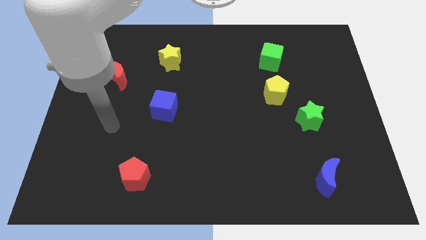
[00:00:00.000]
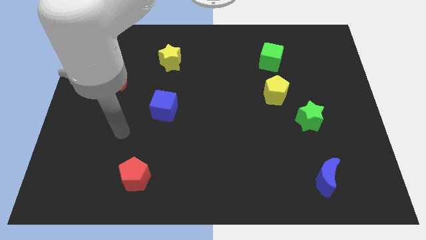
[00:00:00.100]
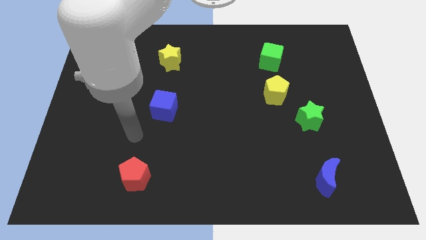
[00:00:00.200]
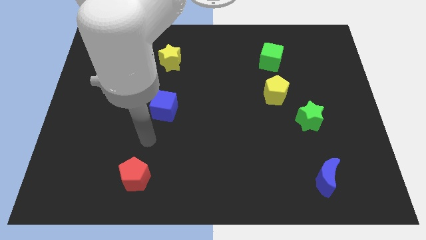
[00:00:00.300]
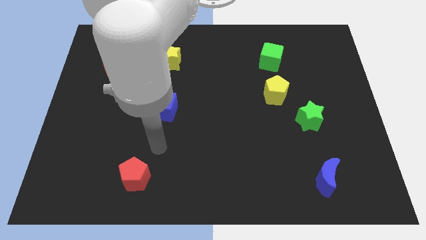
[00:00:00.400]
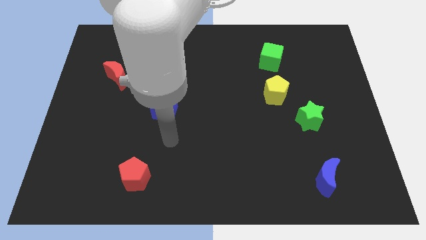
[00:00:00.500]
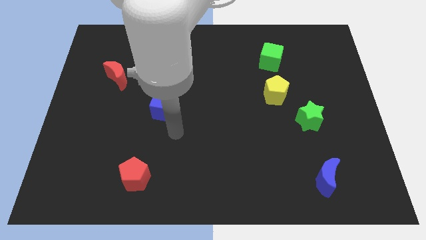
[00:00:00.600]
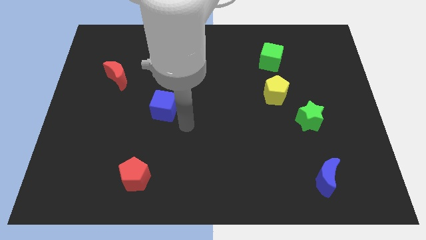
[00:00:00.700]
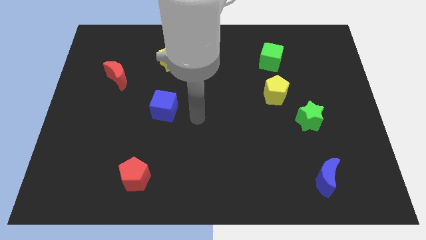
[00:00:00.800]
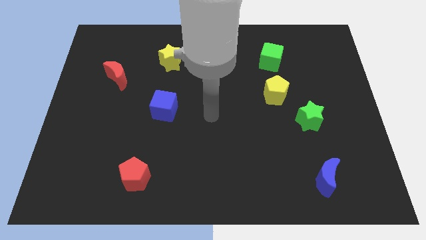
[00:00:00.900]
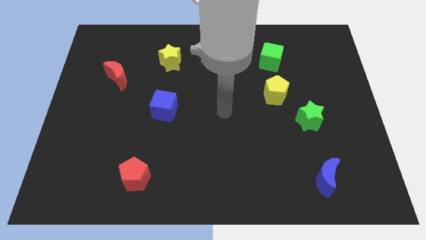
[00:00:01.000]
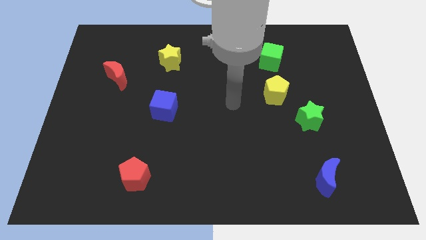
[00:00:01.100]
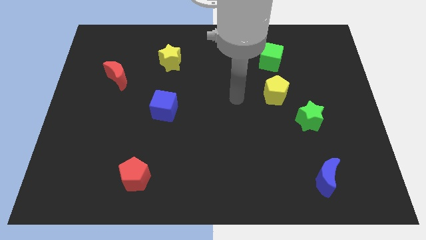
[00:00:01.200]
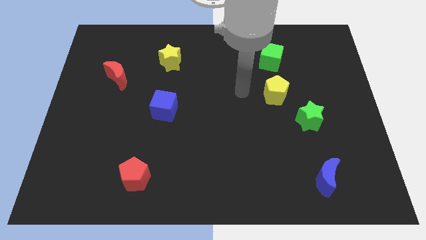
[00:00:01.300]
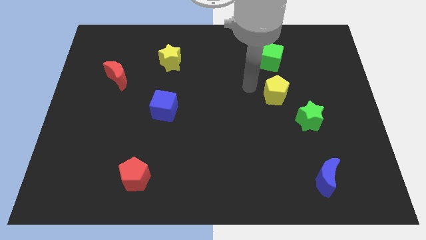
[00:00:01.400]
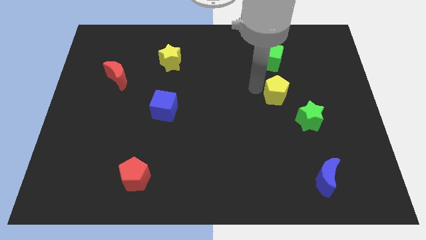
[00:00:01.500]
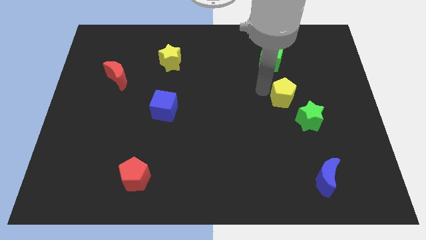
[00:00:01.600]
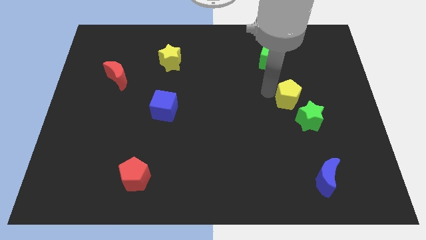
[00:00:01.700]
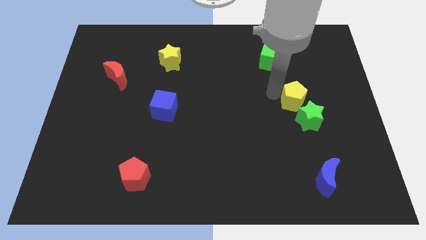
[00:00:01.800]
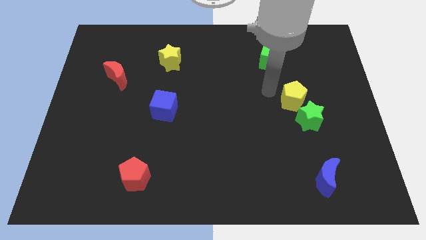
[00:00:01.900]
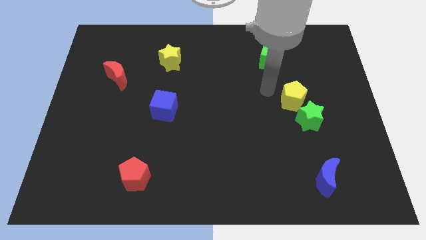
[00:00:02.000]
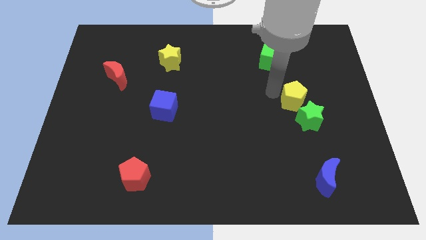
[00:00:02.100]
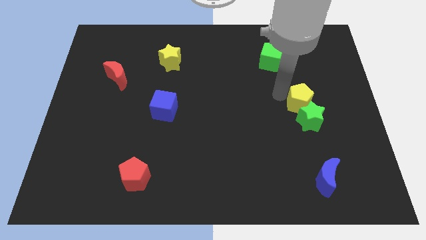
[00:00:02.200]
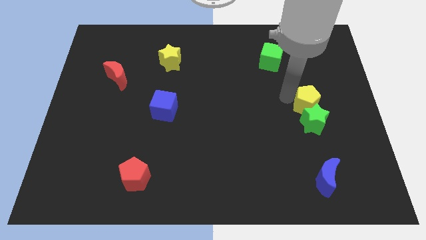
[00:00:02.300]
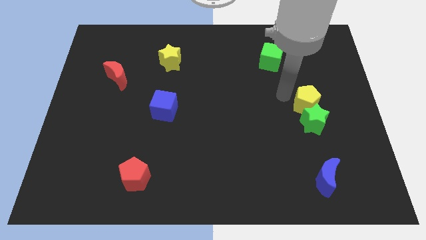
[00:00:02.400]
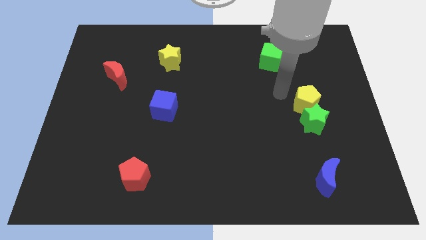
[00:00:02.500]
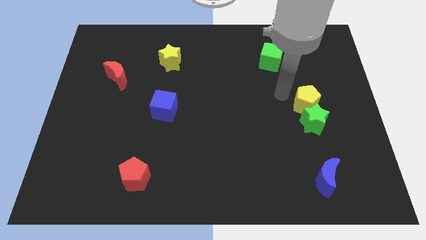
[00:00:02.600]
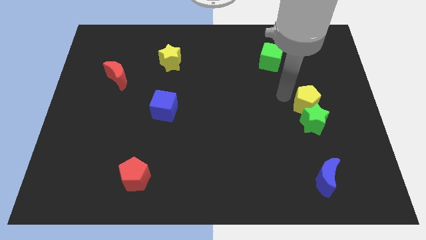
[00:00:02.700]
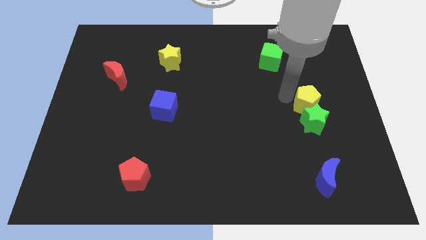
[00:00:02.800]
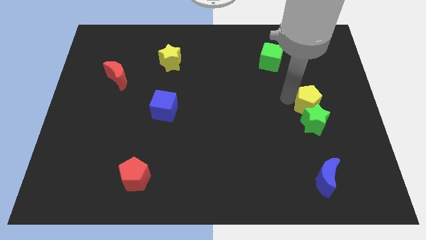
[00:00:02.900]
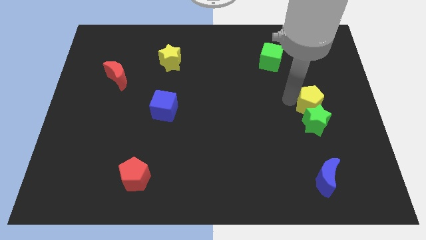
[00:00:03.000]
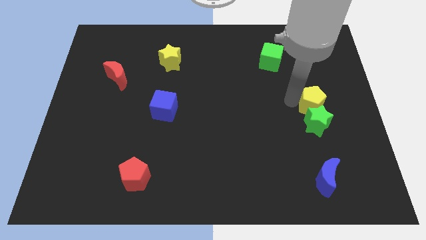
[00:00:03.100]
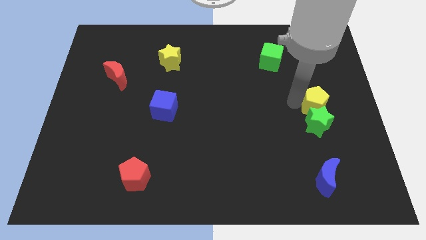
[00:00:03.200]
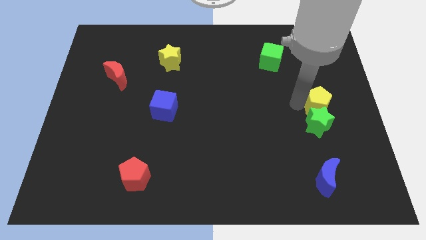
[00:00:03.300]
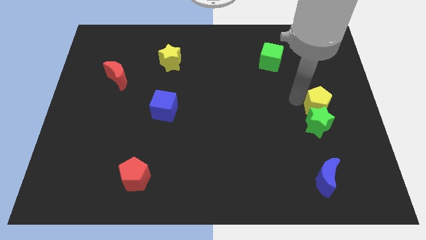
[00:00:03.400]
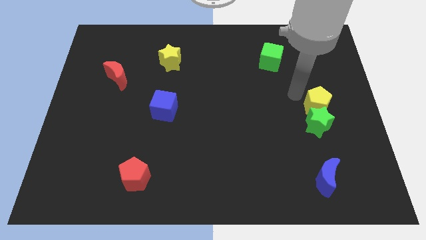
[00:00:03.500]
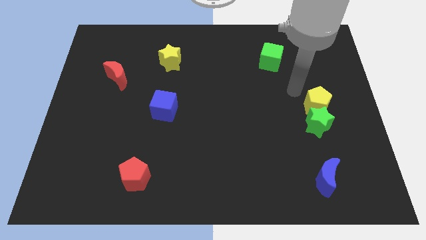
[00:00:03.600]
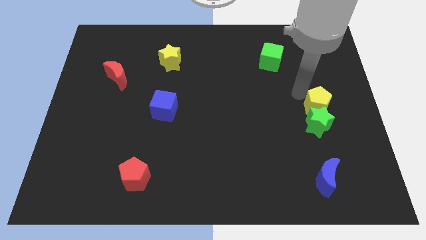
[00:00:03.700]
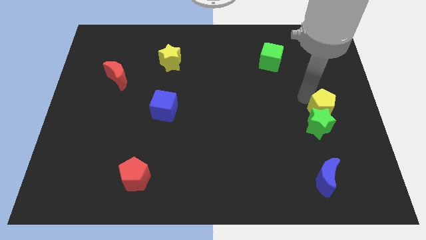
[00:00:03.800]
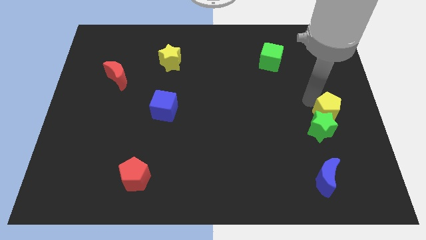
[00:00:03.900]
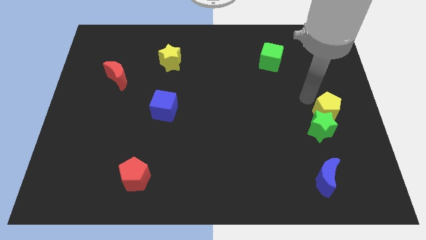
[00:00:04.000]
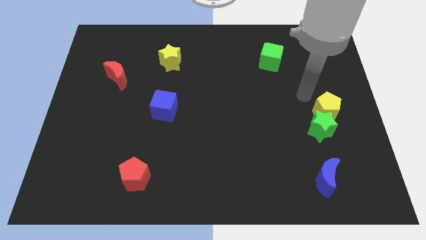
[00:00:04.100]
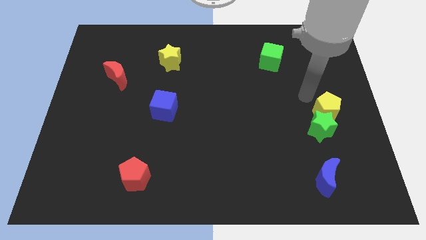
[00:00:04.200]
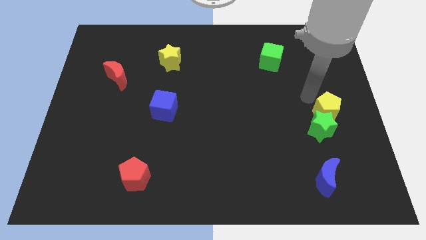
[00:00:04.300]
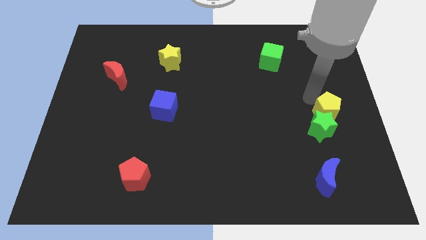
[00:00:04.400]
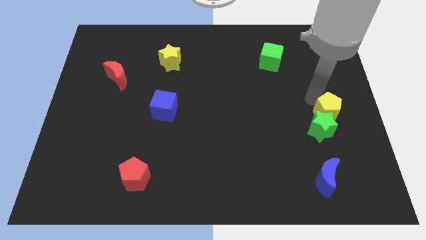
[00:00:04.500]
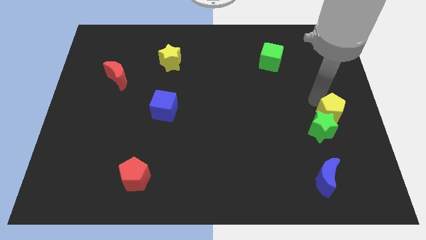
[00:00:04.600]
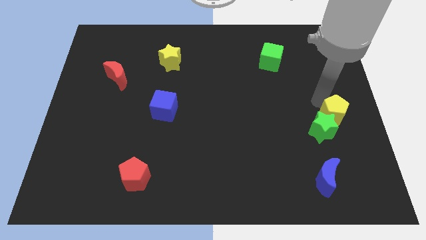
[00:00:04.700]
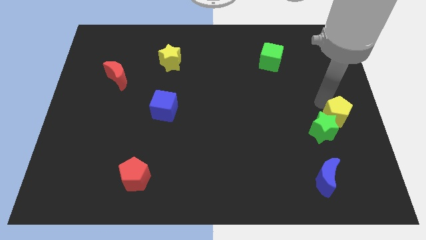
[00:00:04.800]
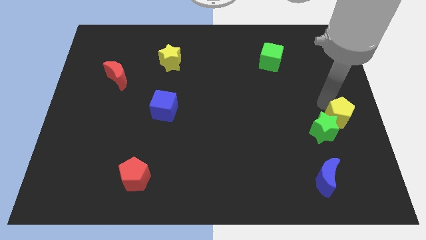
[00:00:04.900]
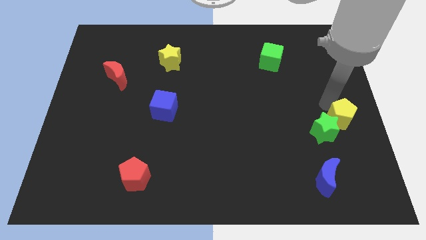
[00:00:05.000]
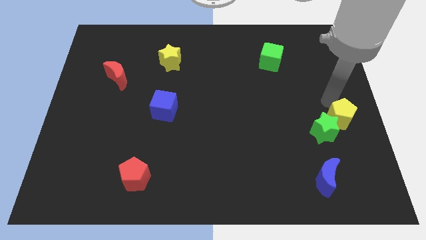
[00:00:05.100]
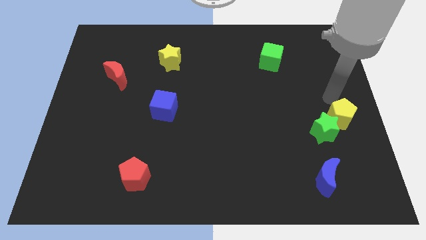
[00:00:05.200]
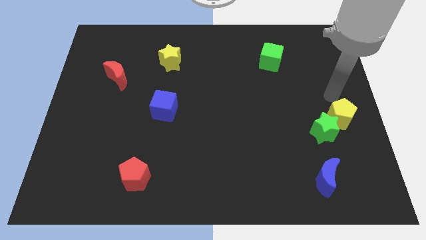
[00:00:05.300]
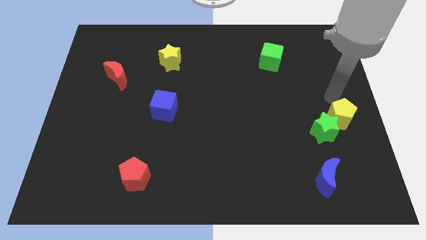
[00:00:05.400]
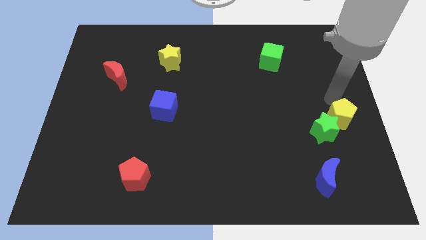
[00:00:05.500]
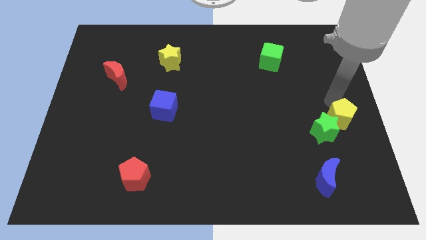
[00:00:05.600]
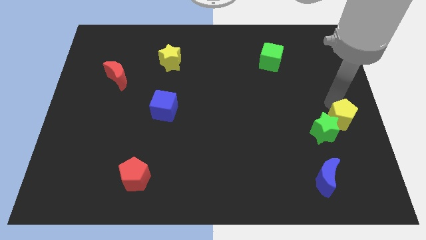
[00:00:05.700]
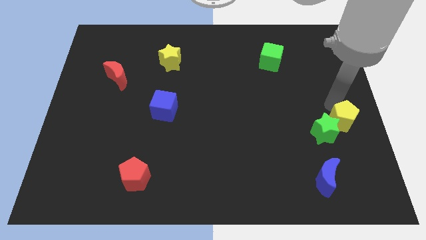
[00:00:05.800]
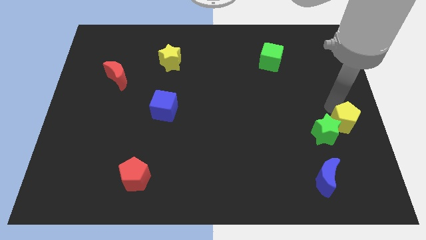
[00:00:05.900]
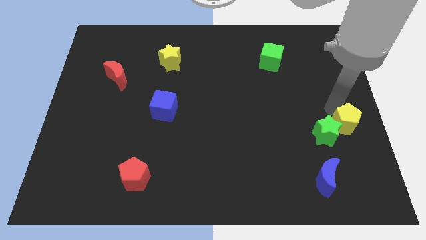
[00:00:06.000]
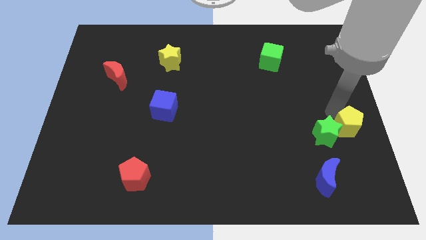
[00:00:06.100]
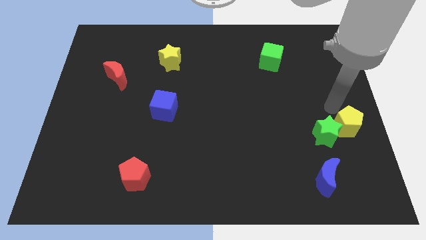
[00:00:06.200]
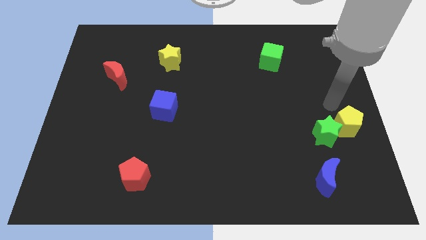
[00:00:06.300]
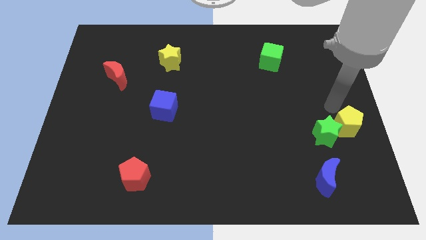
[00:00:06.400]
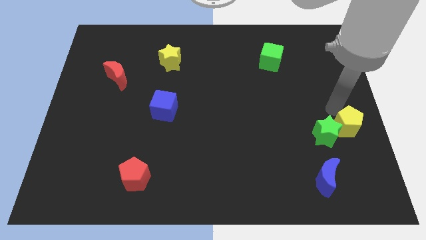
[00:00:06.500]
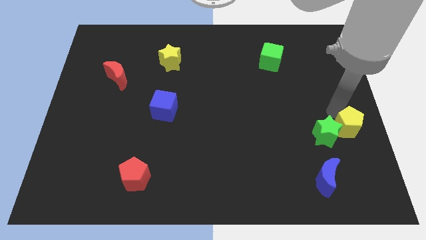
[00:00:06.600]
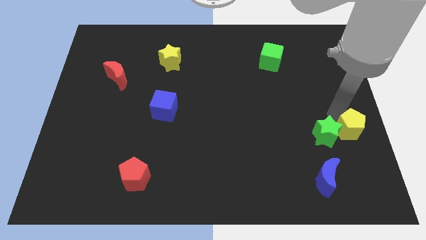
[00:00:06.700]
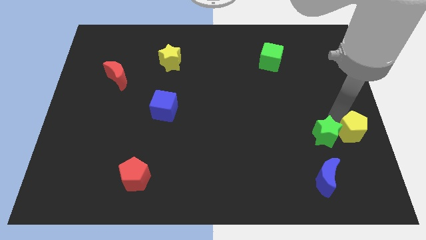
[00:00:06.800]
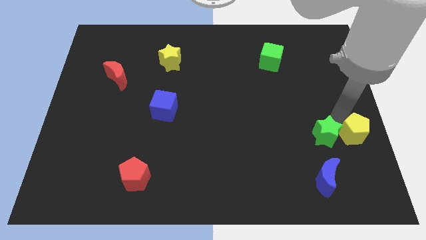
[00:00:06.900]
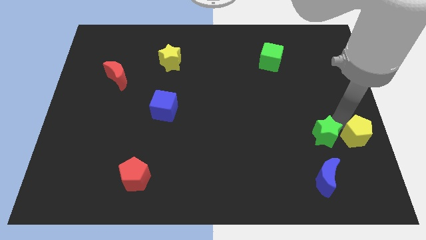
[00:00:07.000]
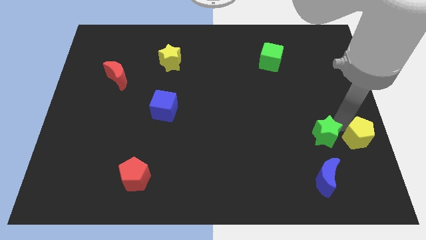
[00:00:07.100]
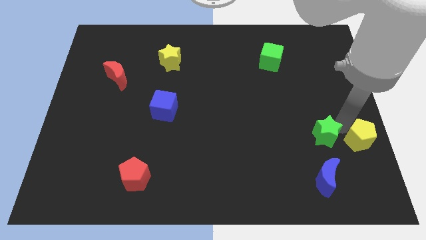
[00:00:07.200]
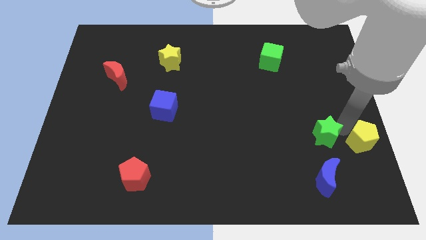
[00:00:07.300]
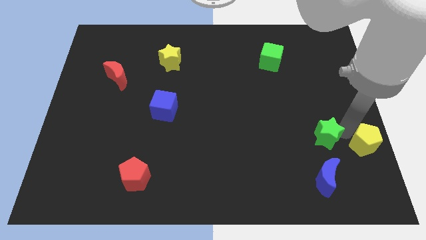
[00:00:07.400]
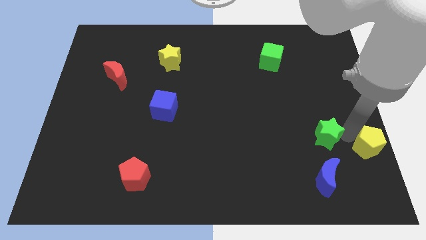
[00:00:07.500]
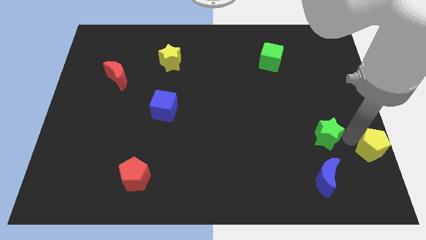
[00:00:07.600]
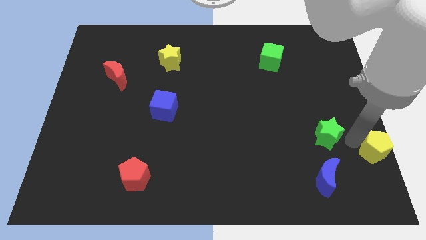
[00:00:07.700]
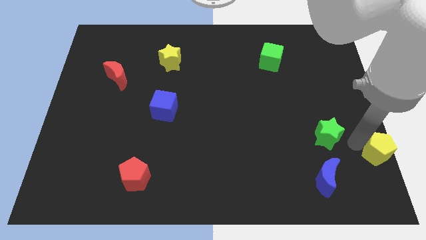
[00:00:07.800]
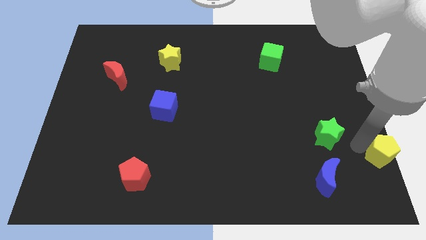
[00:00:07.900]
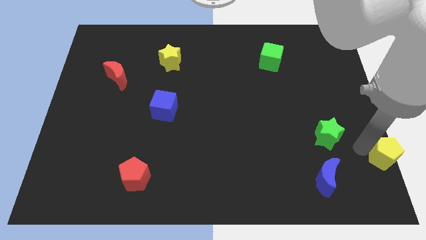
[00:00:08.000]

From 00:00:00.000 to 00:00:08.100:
move the yellow pentagon to the bottom right corner
